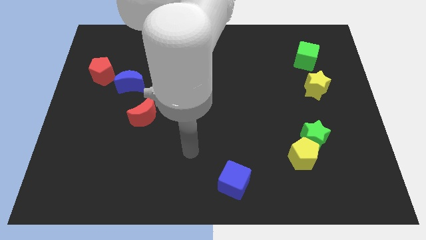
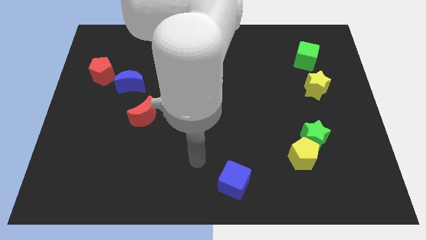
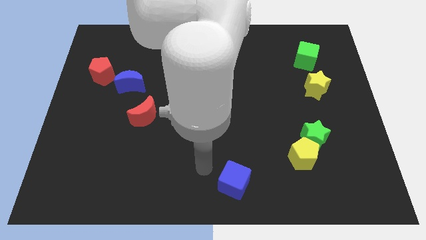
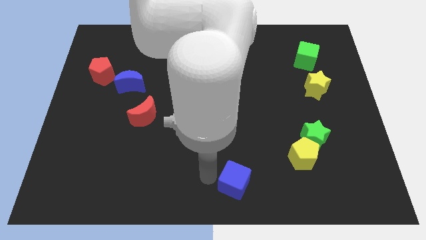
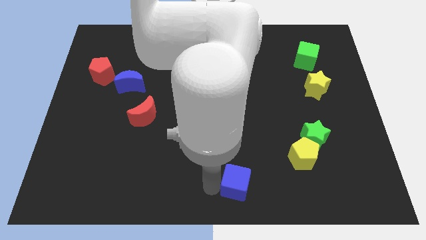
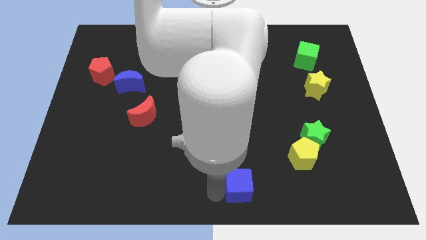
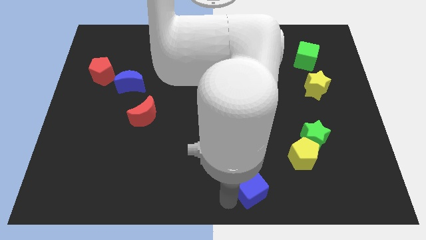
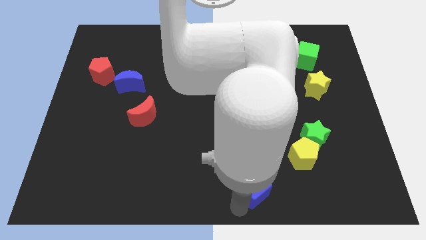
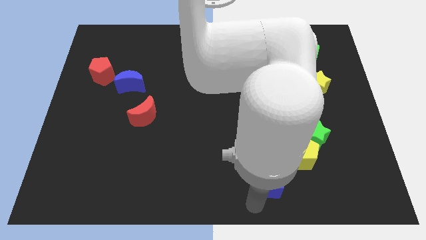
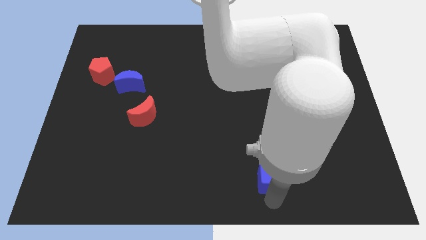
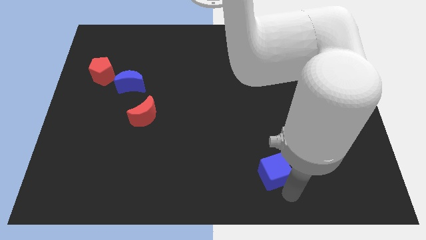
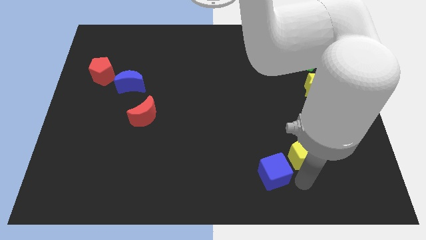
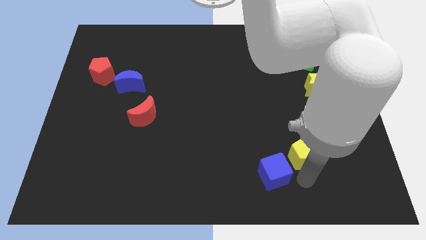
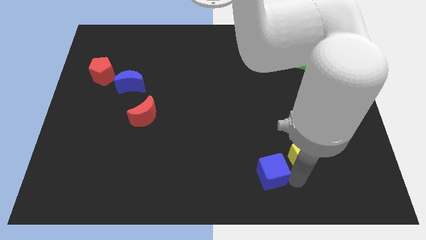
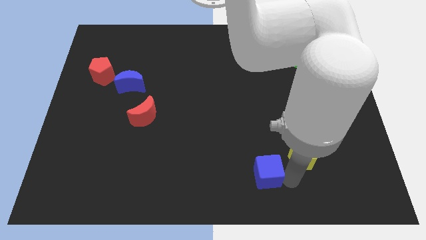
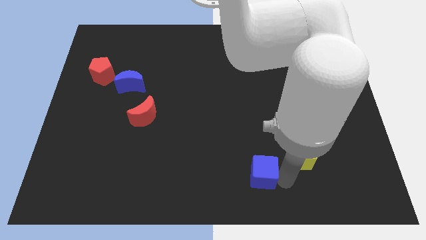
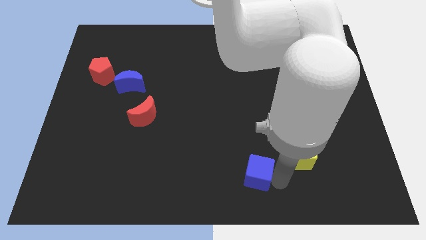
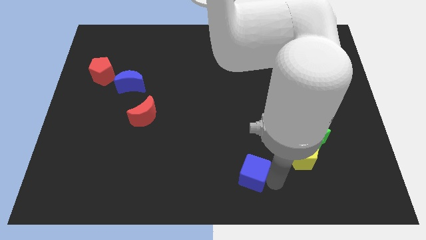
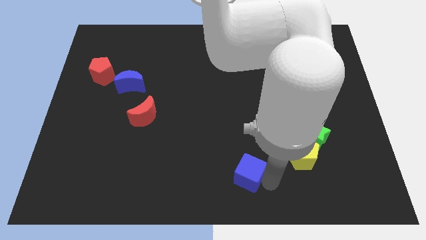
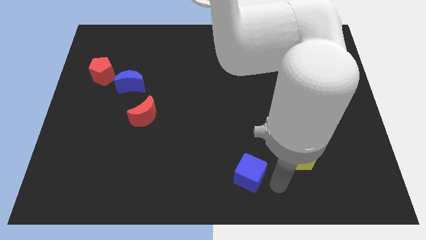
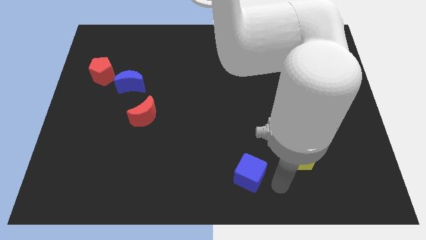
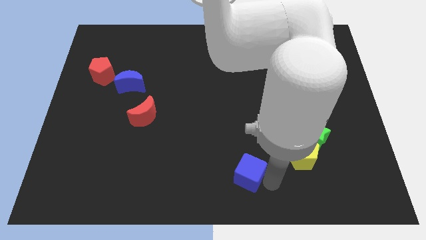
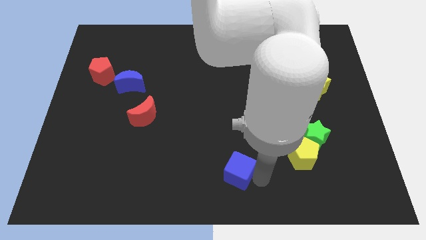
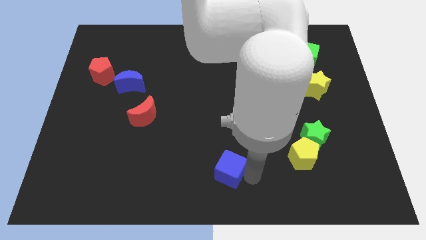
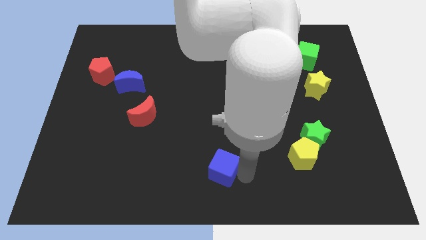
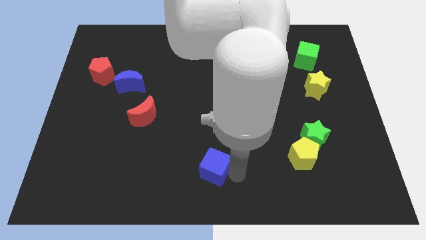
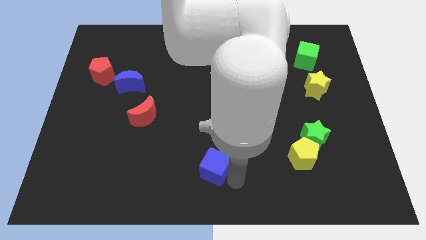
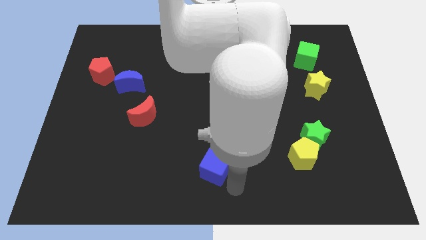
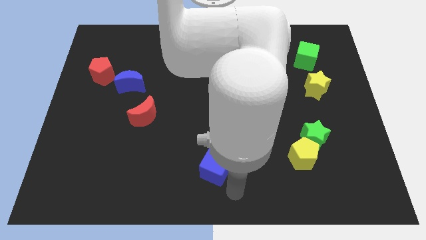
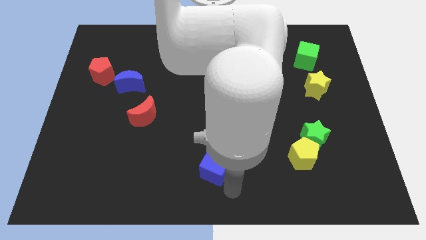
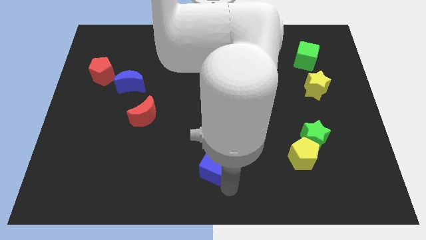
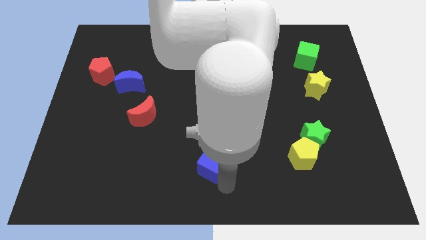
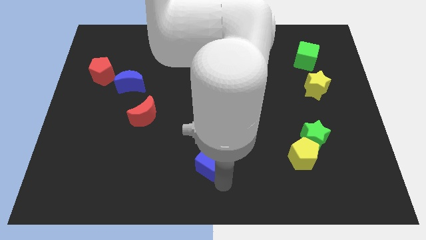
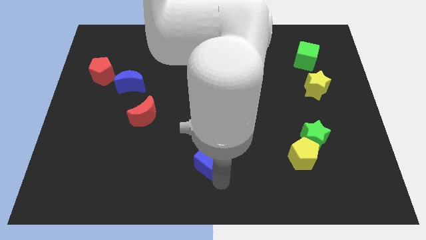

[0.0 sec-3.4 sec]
slide the blue cube upwards and to the left diagonally a little

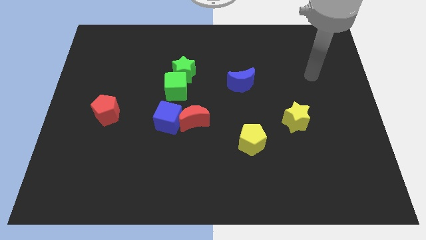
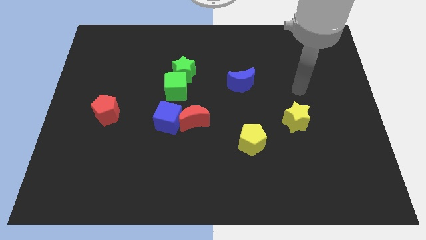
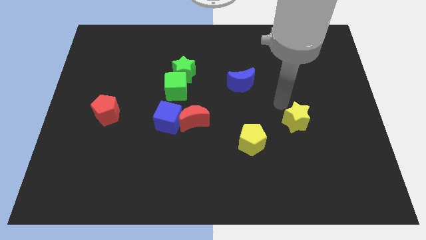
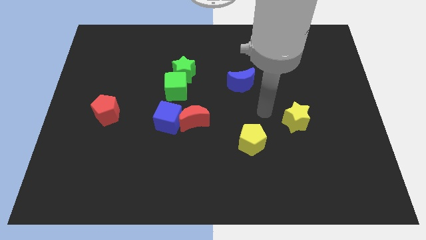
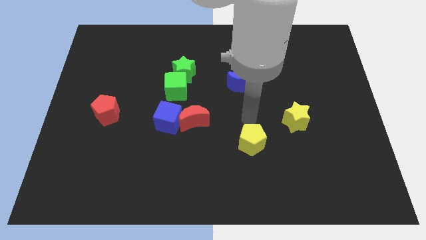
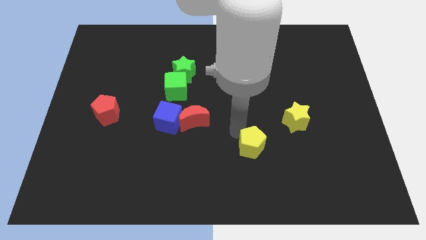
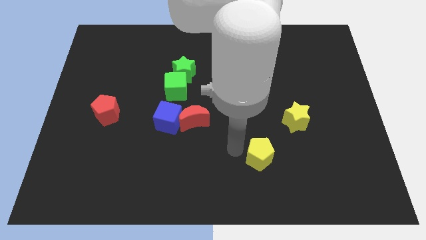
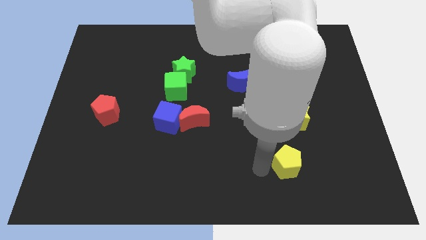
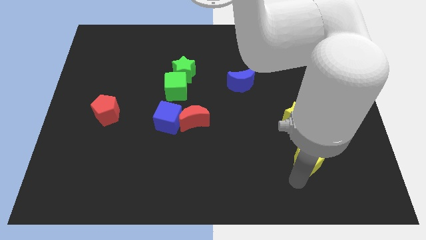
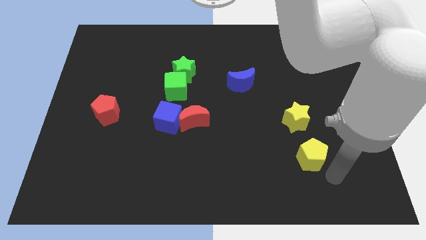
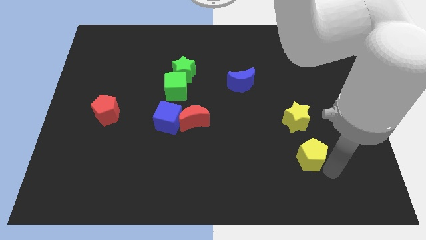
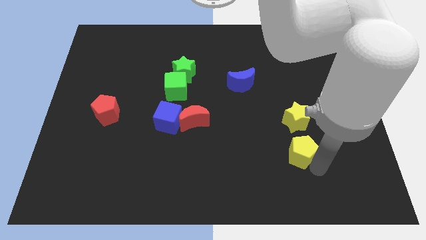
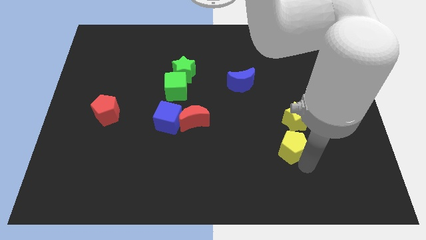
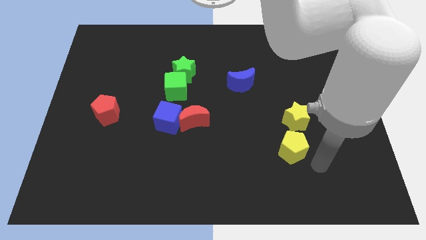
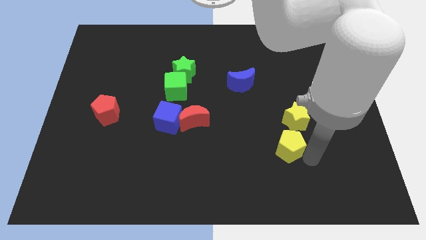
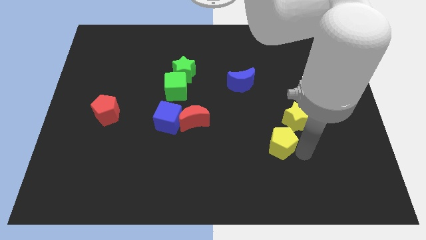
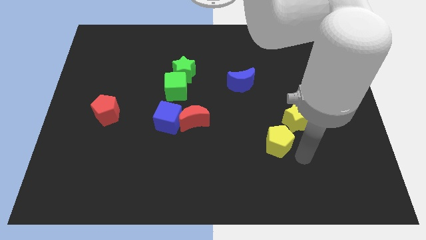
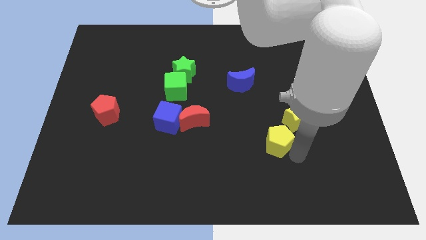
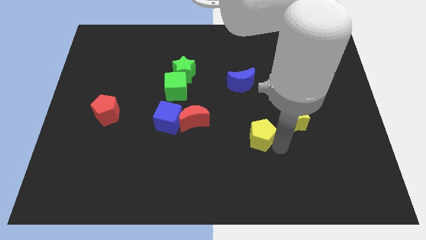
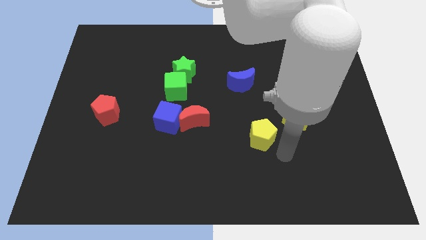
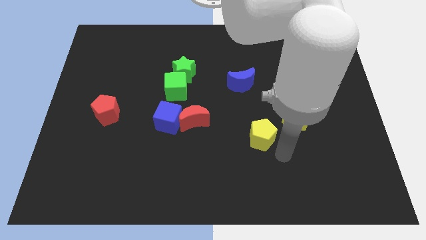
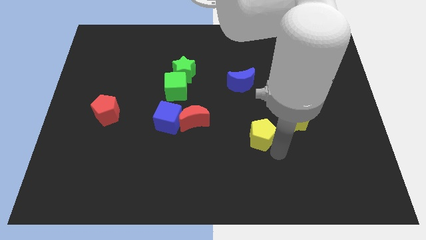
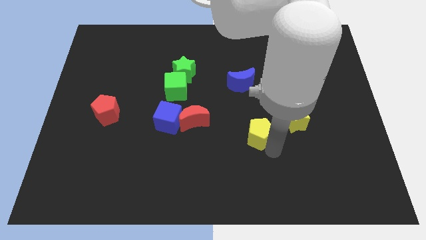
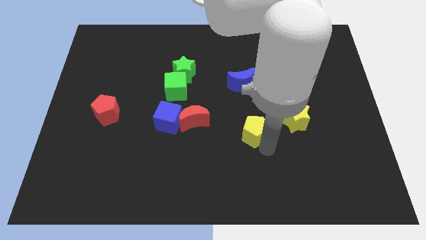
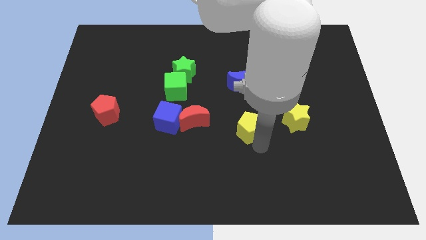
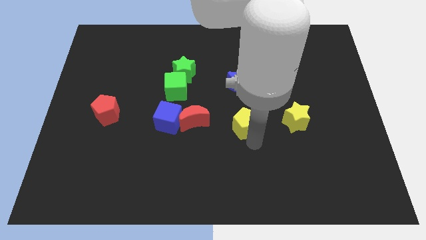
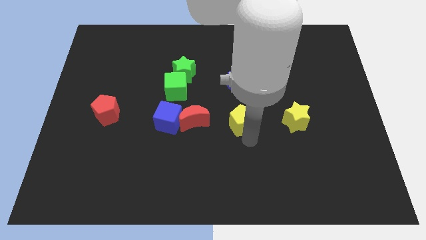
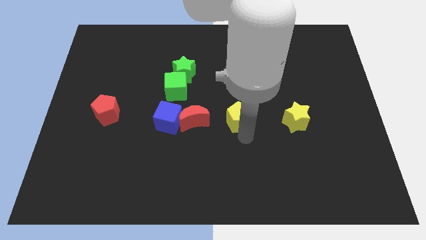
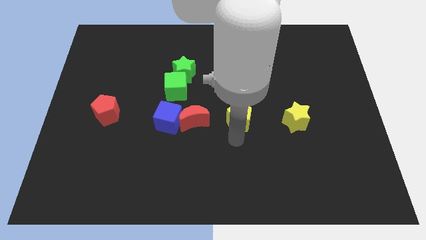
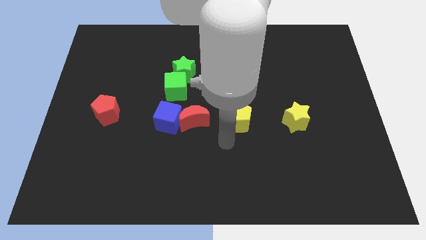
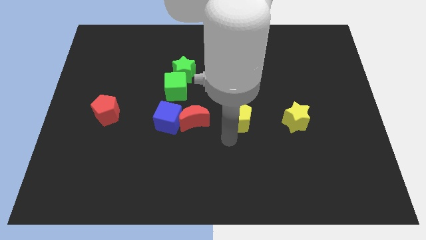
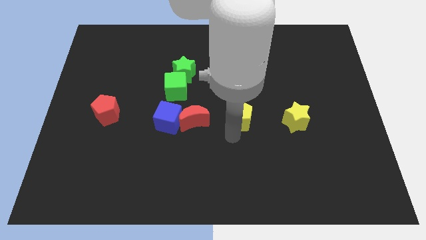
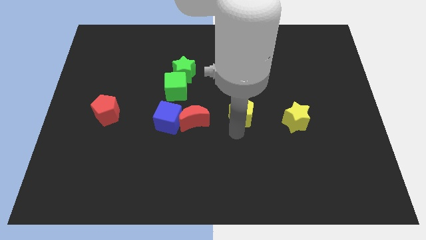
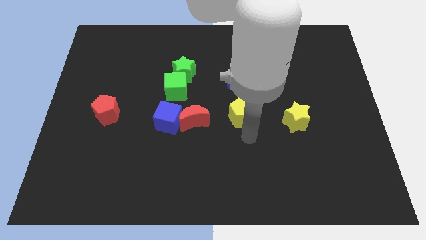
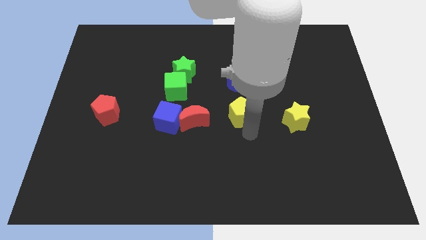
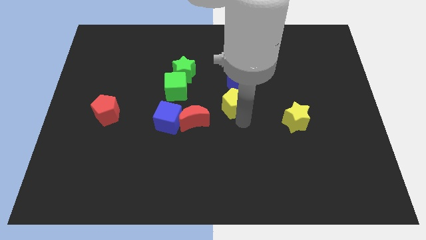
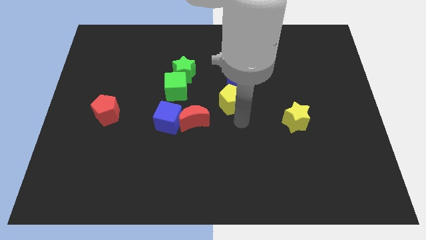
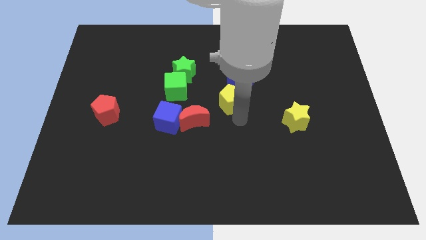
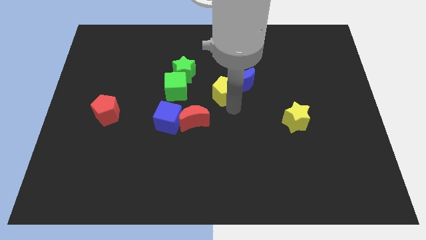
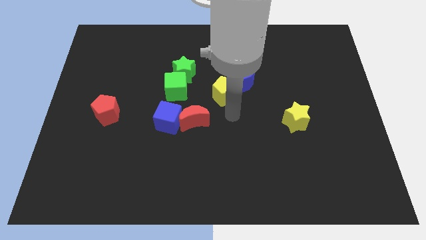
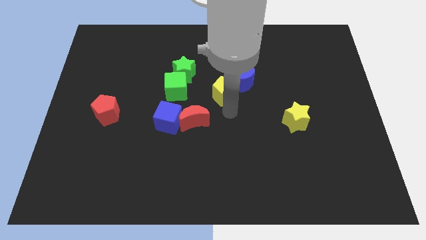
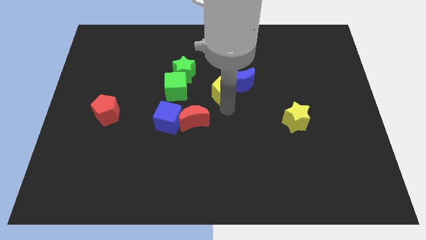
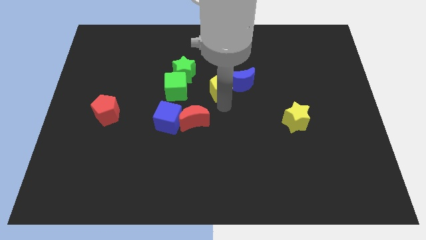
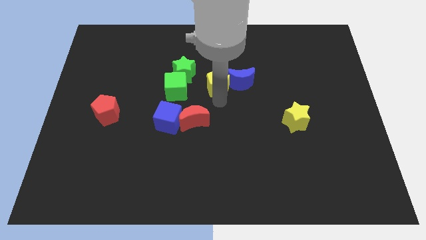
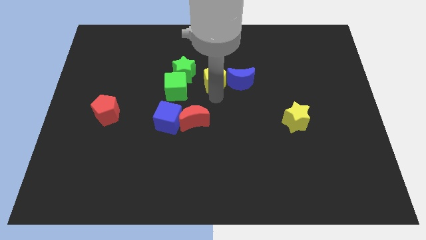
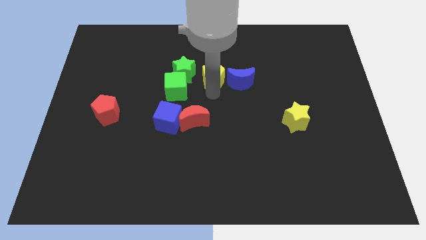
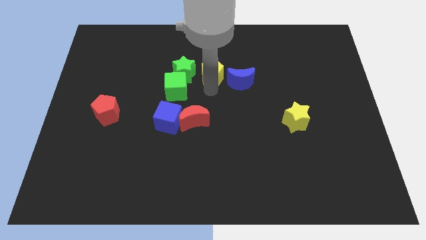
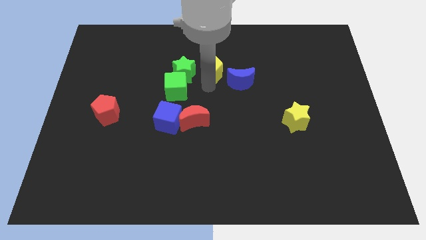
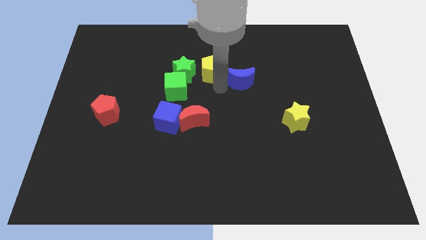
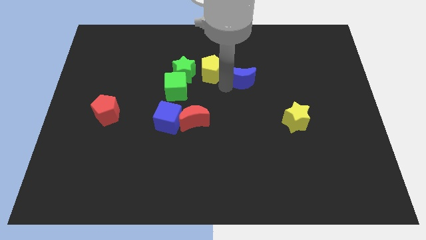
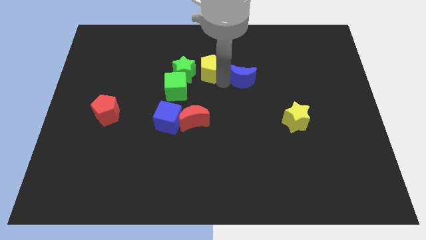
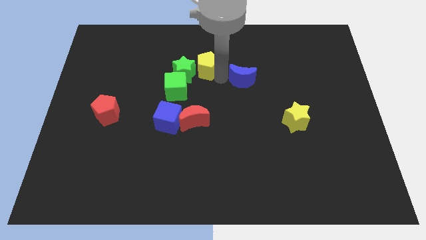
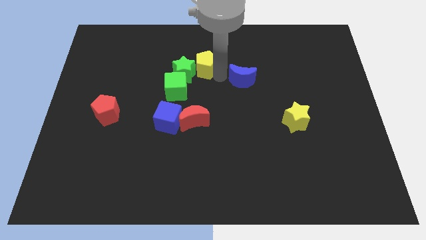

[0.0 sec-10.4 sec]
slide the yellow pentagon upwards and left diagonally
